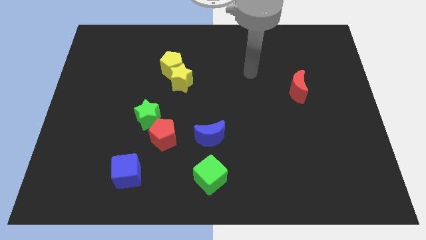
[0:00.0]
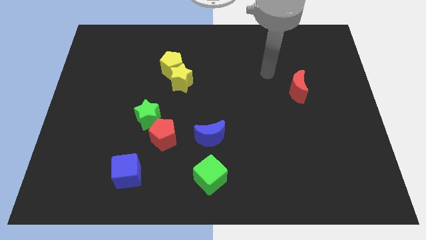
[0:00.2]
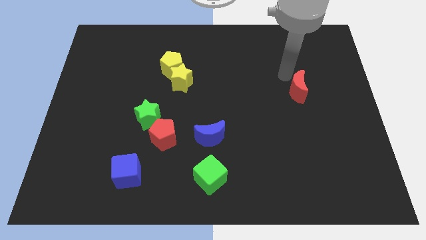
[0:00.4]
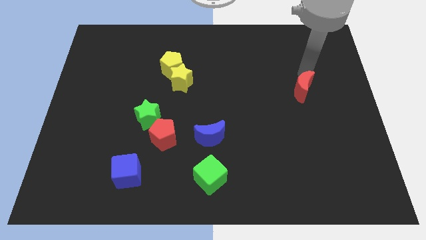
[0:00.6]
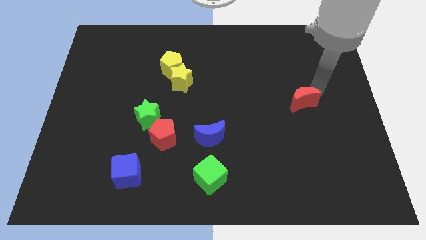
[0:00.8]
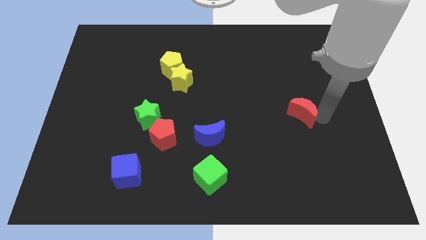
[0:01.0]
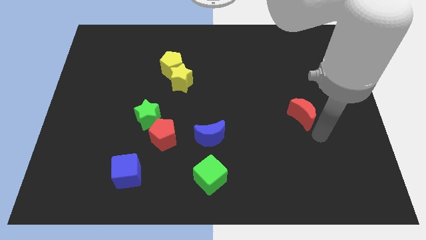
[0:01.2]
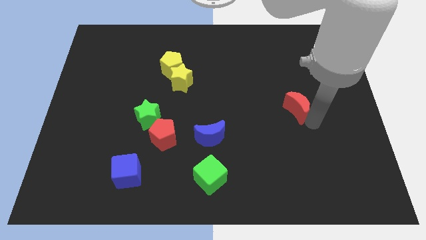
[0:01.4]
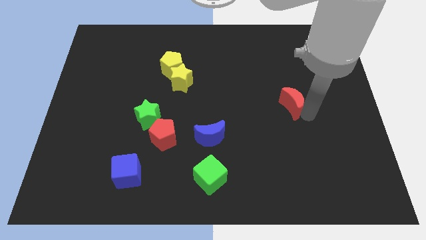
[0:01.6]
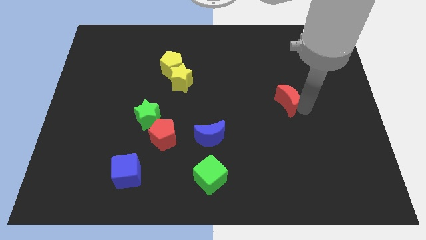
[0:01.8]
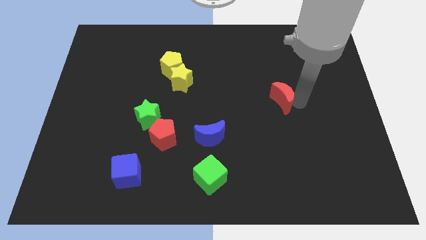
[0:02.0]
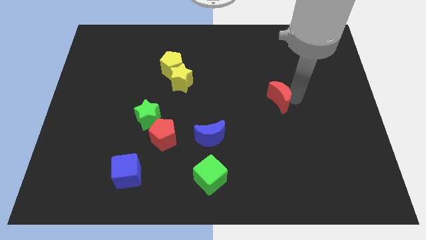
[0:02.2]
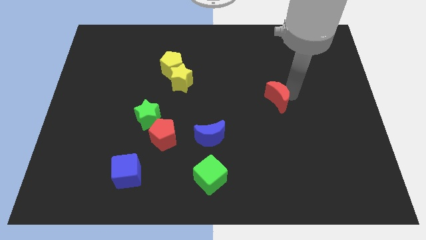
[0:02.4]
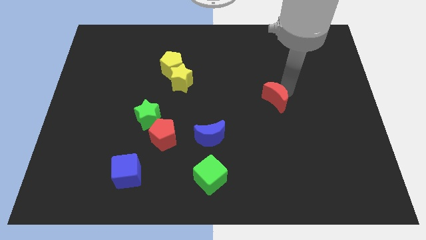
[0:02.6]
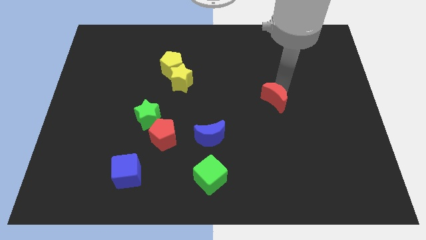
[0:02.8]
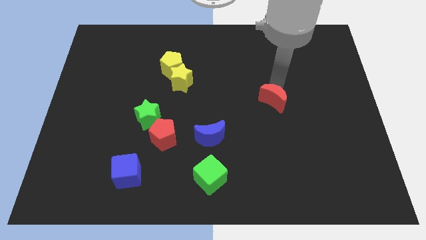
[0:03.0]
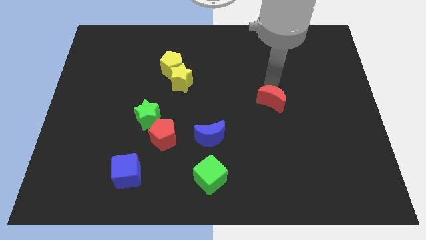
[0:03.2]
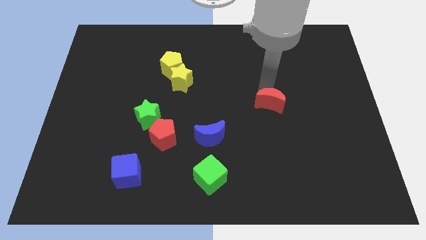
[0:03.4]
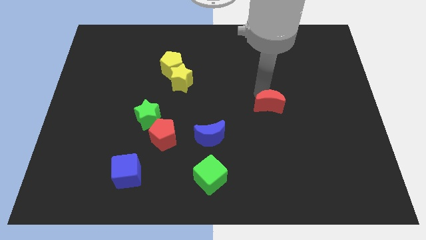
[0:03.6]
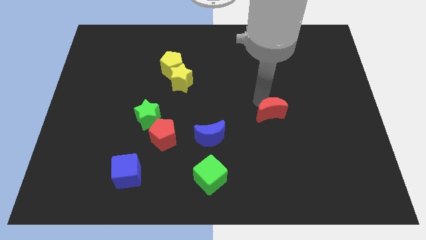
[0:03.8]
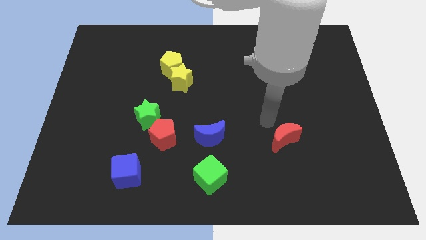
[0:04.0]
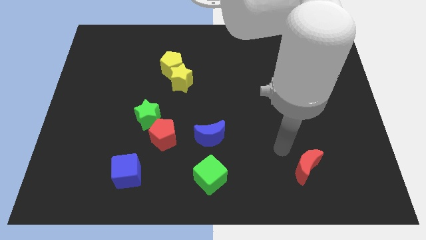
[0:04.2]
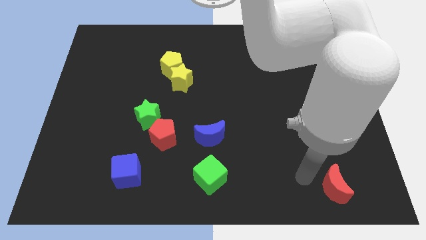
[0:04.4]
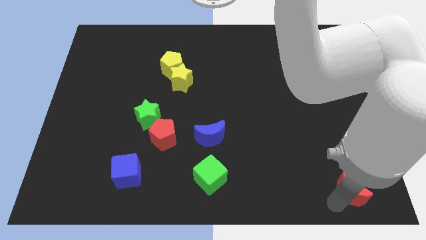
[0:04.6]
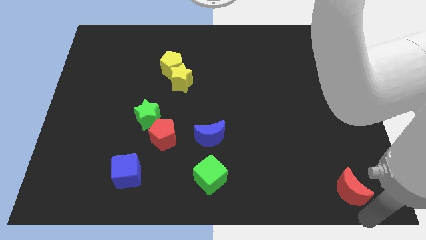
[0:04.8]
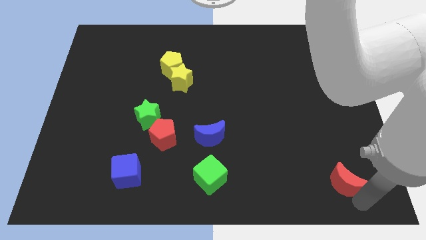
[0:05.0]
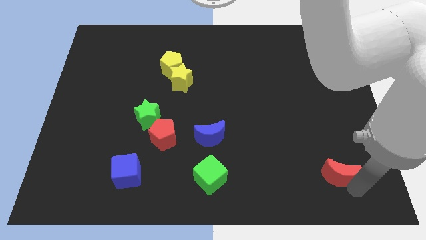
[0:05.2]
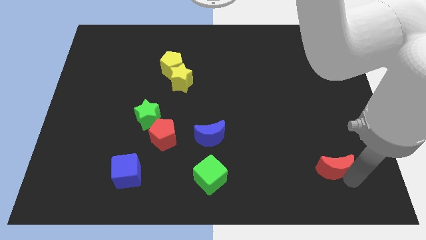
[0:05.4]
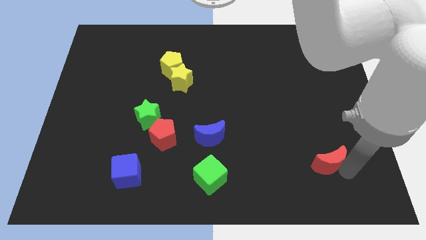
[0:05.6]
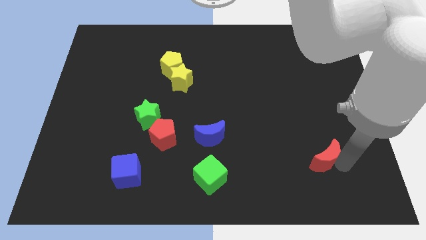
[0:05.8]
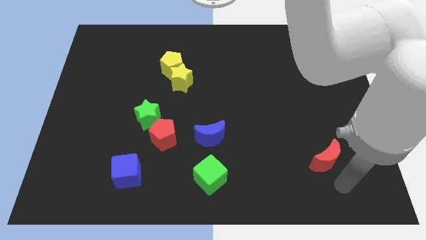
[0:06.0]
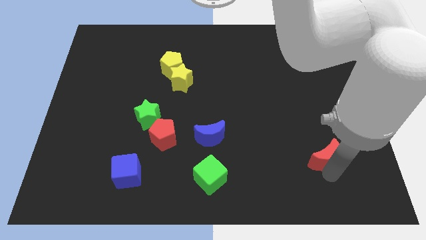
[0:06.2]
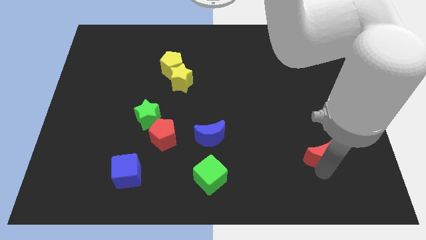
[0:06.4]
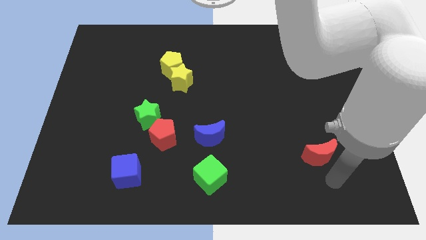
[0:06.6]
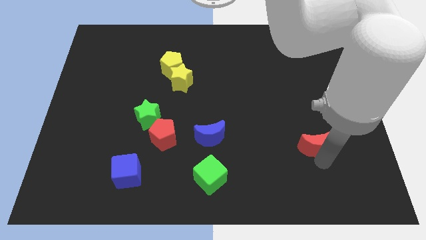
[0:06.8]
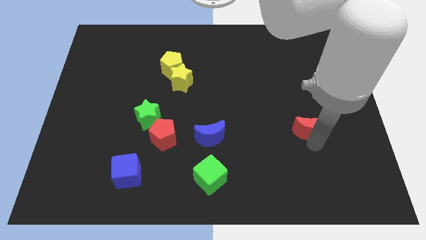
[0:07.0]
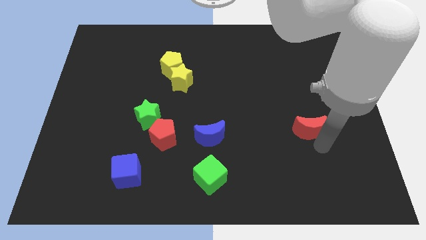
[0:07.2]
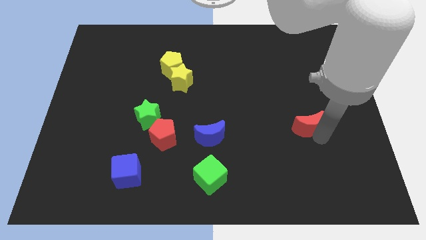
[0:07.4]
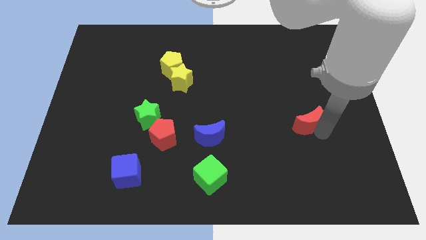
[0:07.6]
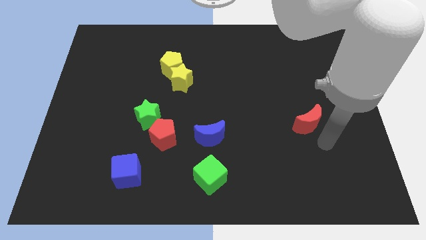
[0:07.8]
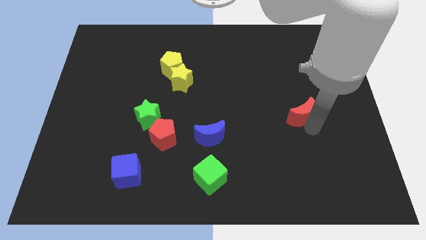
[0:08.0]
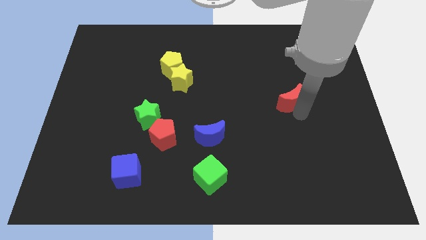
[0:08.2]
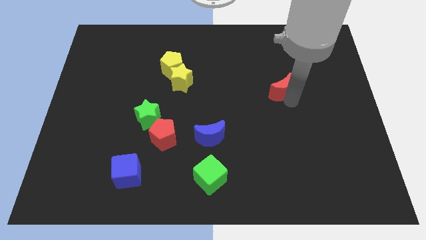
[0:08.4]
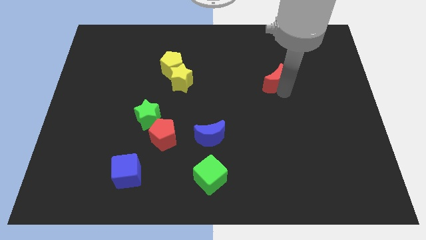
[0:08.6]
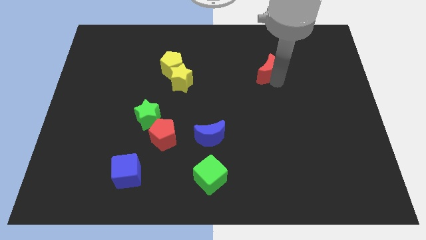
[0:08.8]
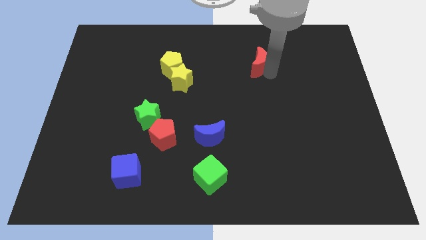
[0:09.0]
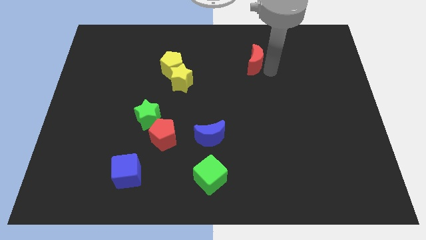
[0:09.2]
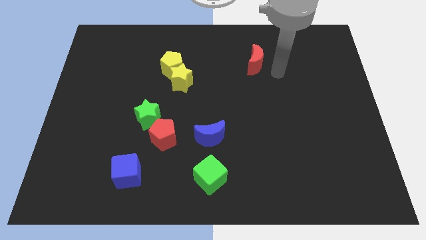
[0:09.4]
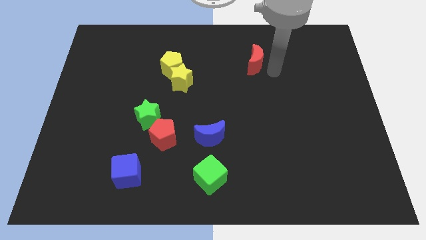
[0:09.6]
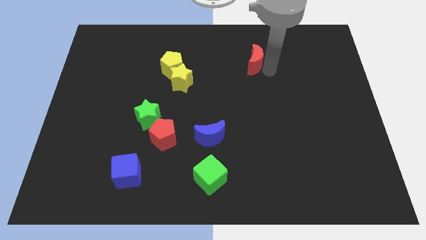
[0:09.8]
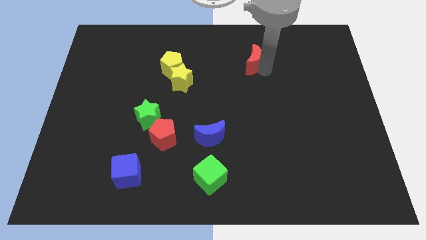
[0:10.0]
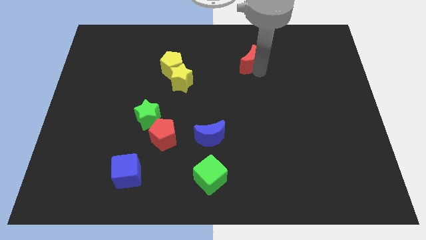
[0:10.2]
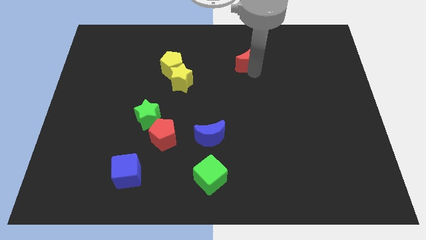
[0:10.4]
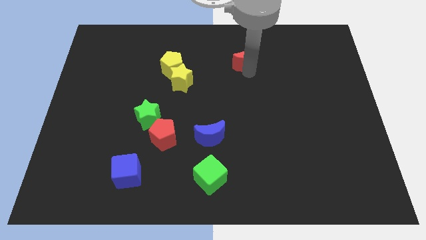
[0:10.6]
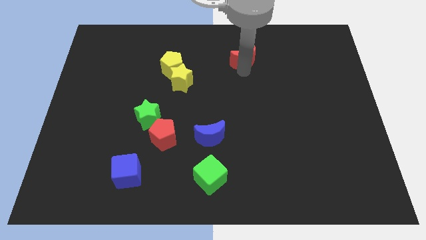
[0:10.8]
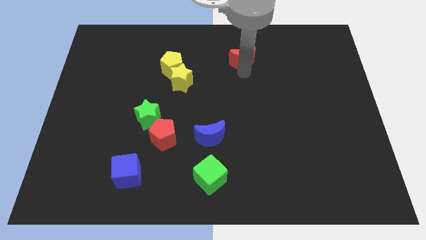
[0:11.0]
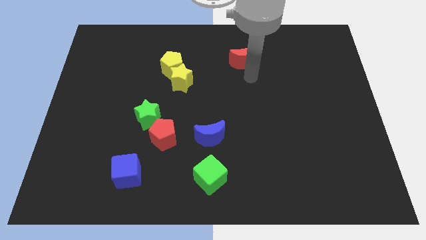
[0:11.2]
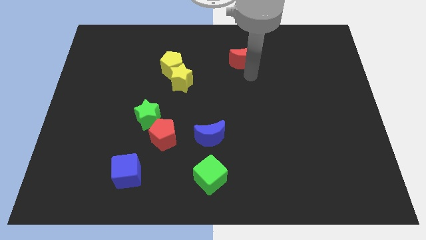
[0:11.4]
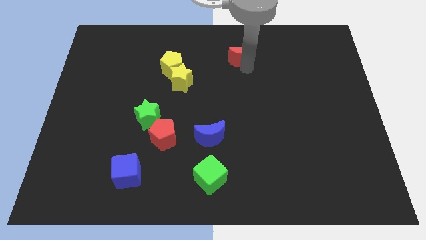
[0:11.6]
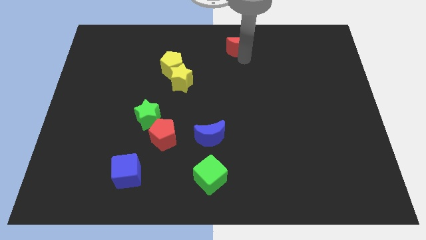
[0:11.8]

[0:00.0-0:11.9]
put the red moon to the top
